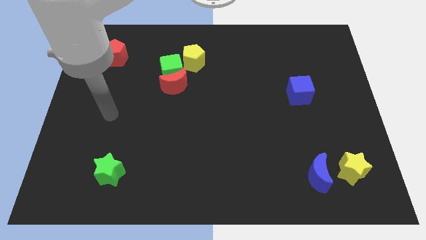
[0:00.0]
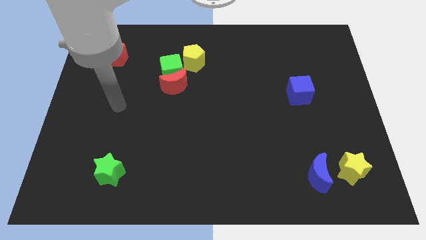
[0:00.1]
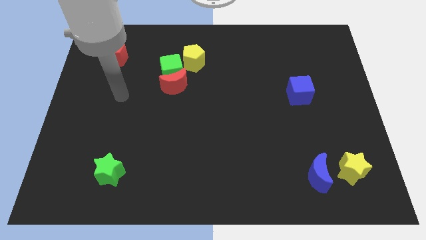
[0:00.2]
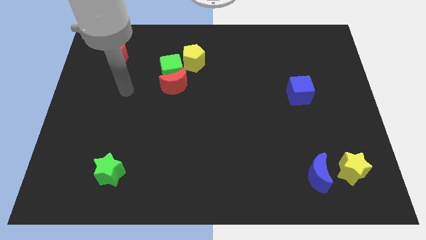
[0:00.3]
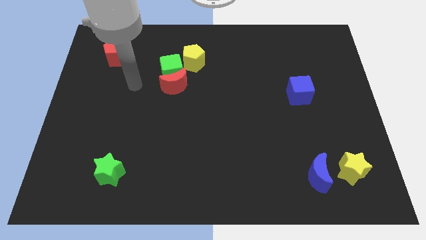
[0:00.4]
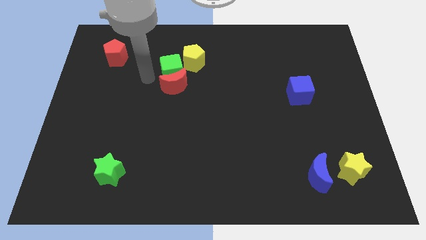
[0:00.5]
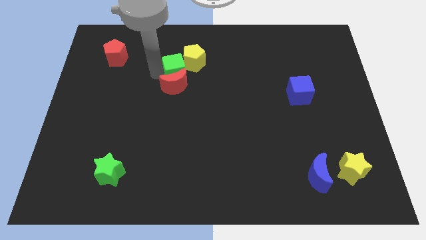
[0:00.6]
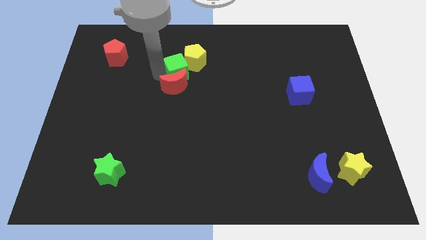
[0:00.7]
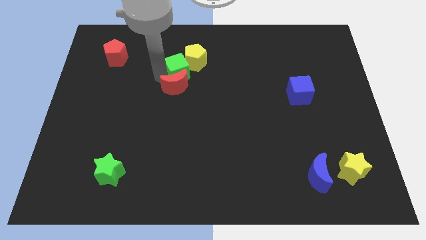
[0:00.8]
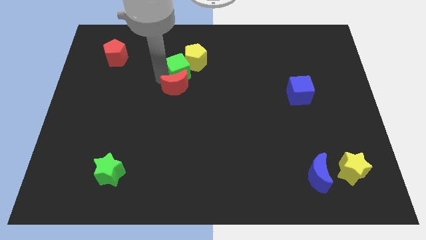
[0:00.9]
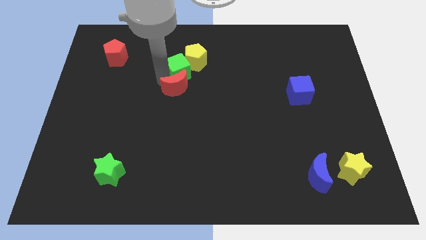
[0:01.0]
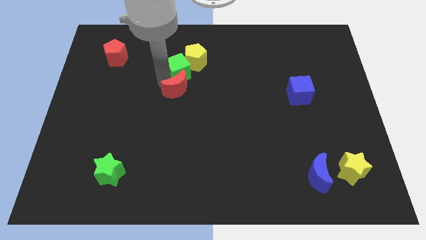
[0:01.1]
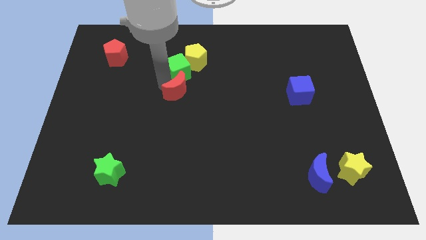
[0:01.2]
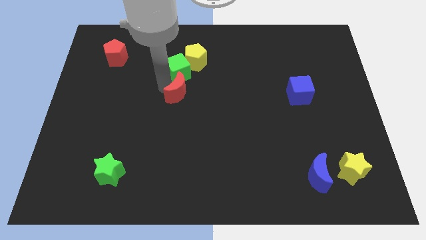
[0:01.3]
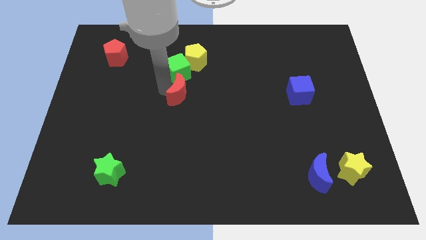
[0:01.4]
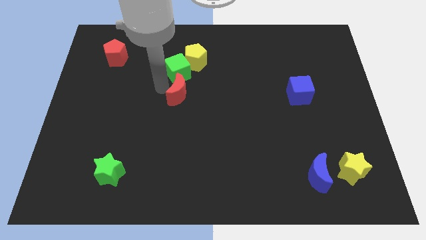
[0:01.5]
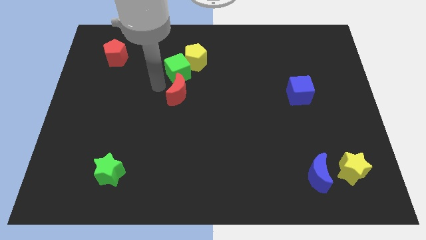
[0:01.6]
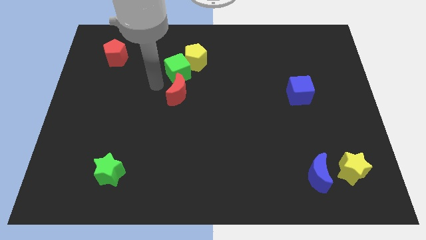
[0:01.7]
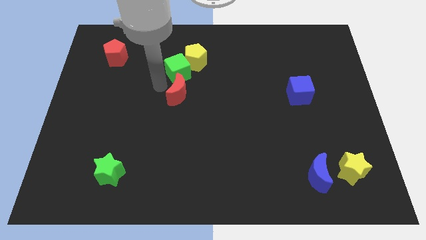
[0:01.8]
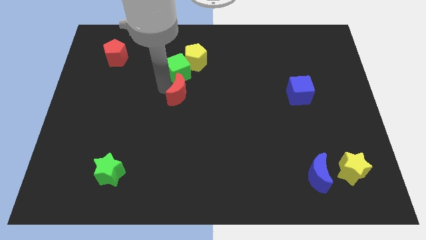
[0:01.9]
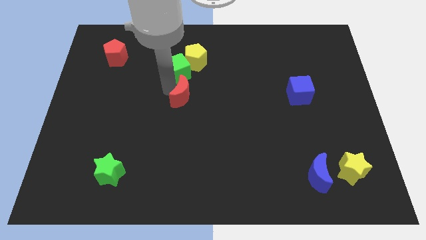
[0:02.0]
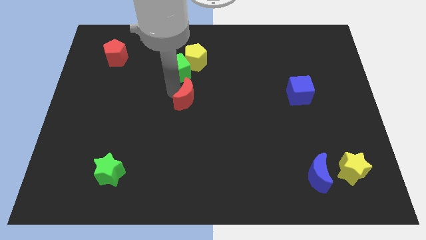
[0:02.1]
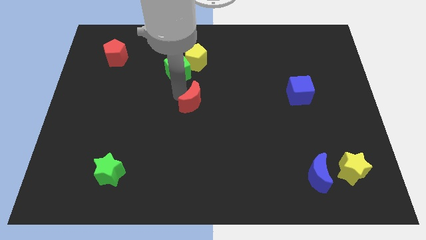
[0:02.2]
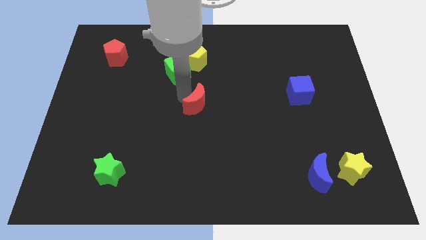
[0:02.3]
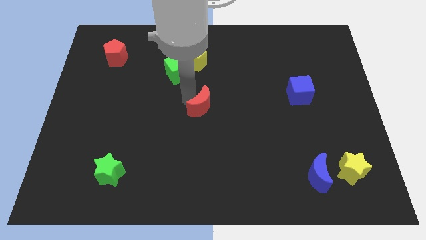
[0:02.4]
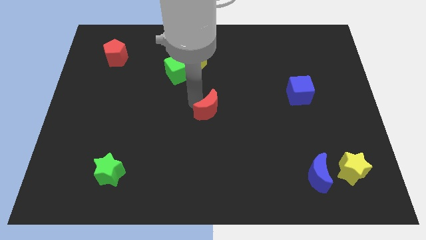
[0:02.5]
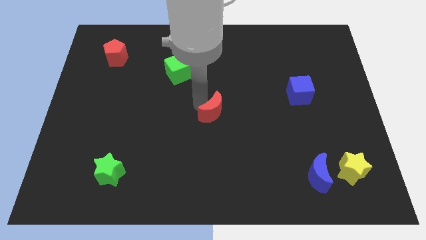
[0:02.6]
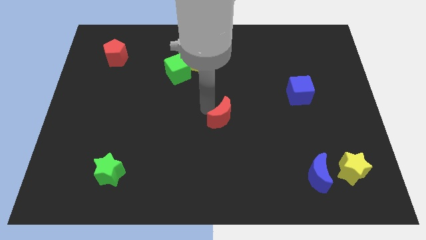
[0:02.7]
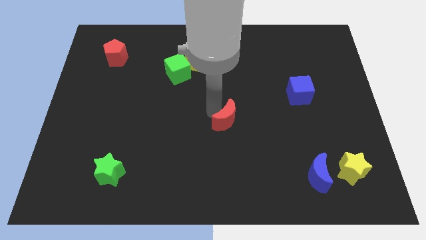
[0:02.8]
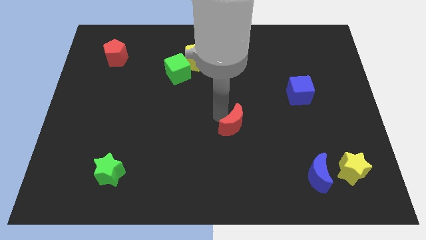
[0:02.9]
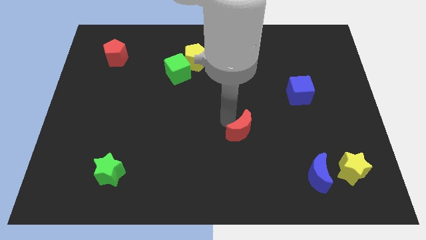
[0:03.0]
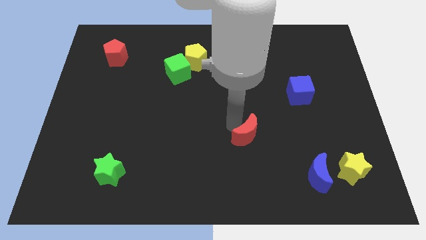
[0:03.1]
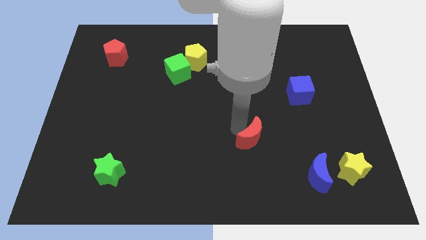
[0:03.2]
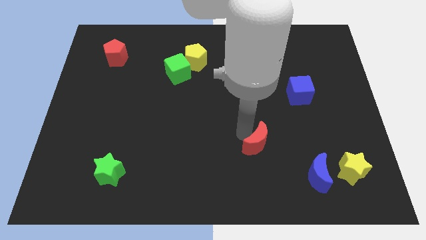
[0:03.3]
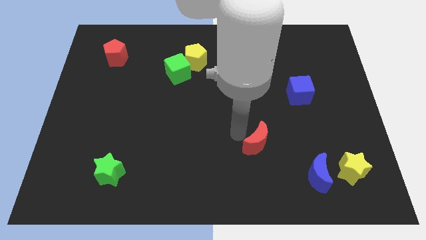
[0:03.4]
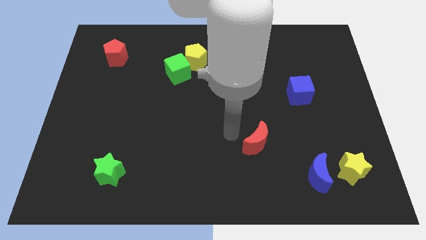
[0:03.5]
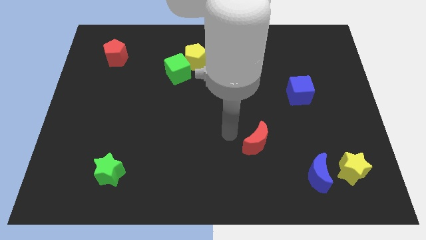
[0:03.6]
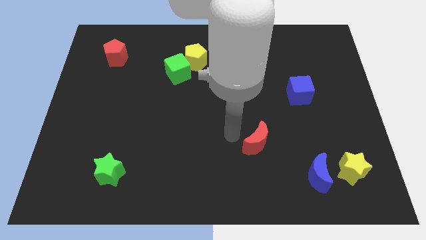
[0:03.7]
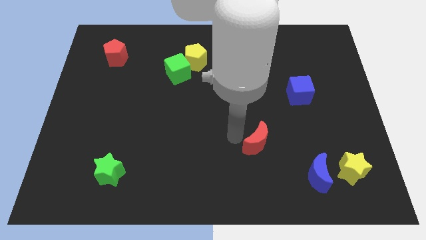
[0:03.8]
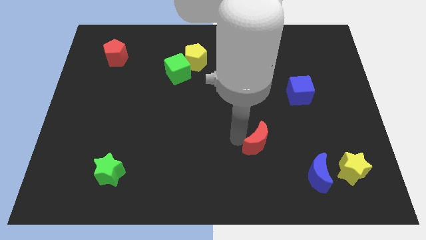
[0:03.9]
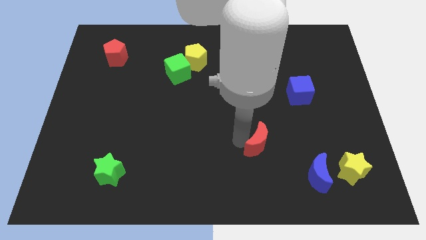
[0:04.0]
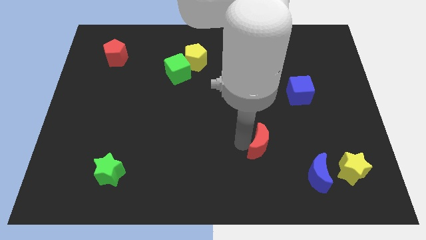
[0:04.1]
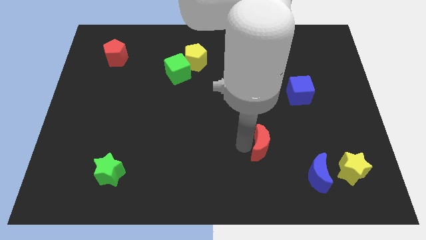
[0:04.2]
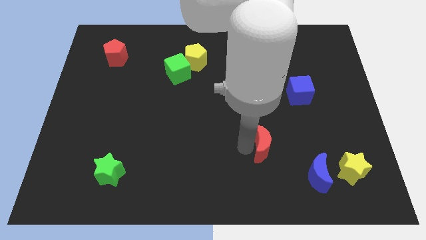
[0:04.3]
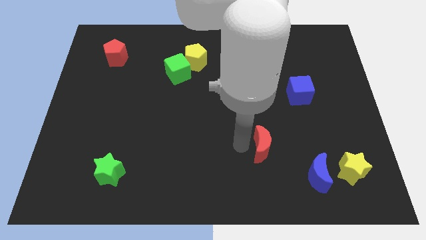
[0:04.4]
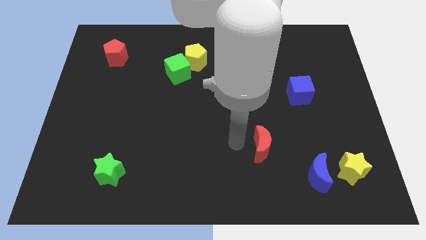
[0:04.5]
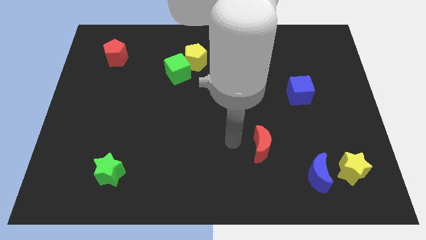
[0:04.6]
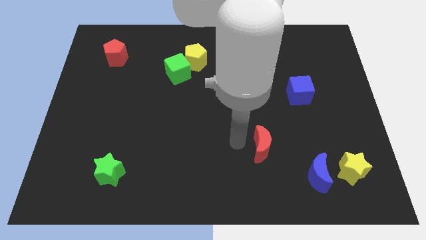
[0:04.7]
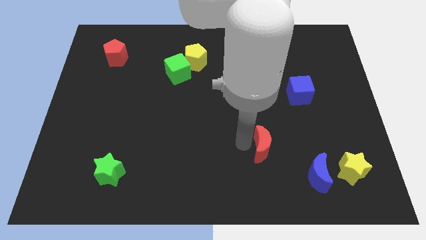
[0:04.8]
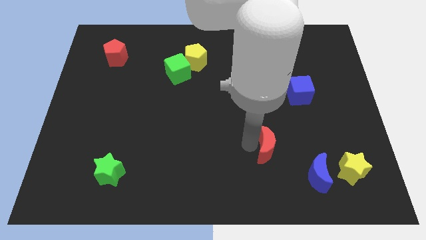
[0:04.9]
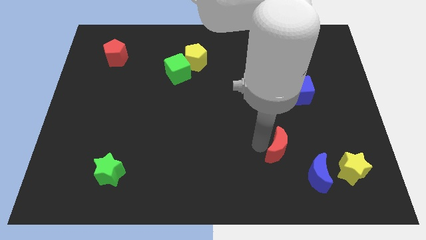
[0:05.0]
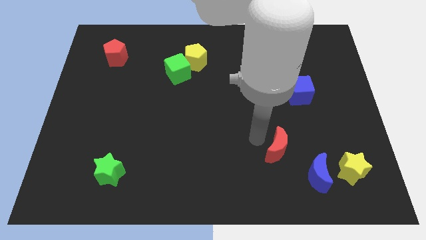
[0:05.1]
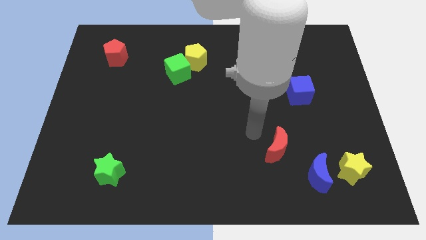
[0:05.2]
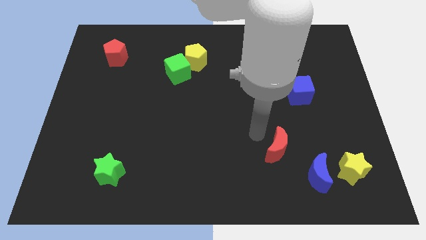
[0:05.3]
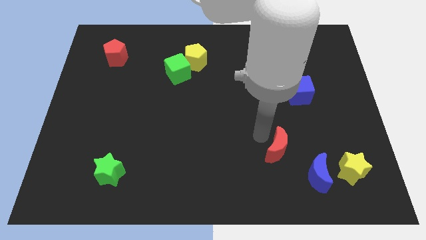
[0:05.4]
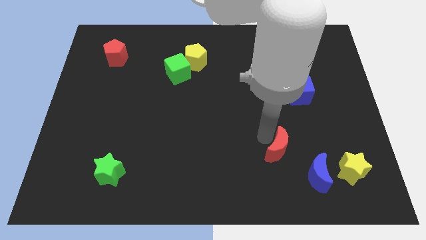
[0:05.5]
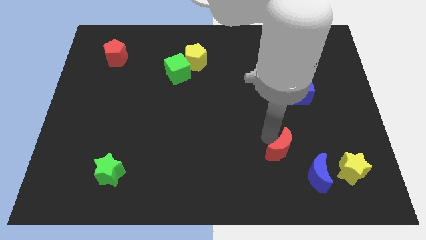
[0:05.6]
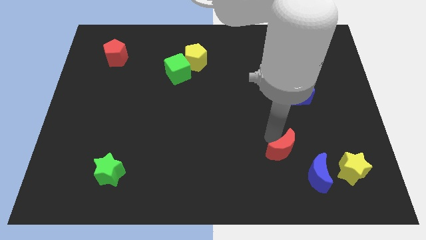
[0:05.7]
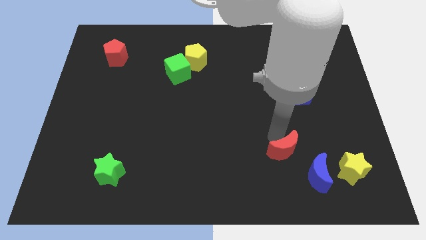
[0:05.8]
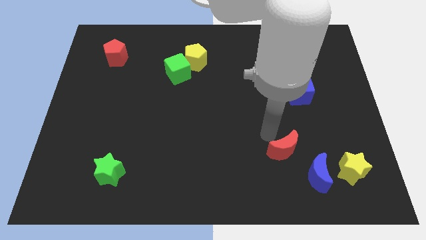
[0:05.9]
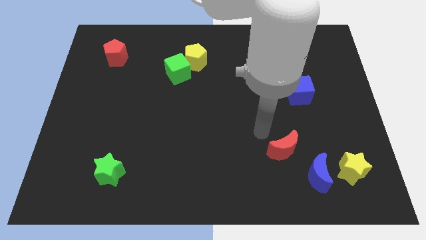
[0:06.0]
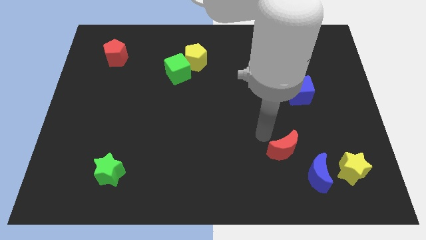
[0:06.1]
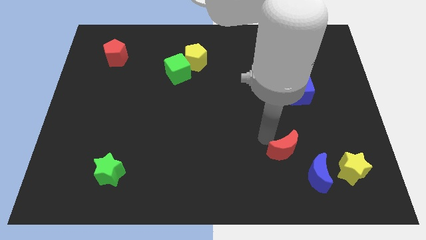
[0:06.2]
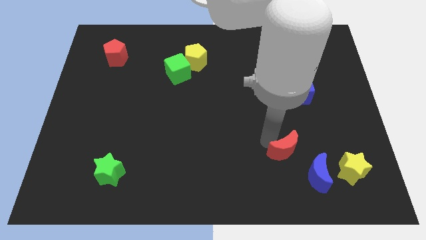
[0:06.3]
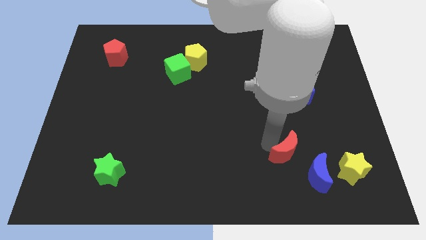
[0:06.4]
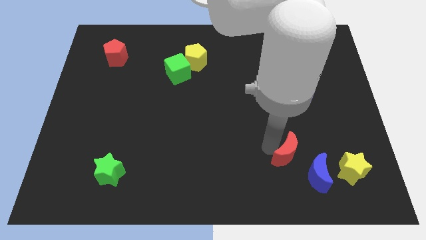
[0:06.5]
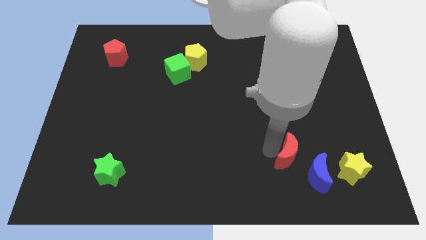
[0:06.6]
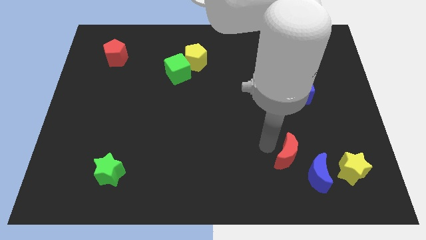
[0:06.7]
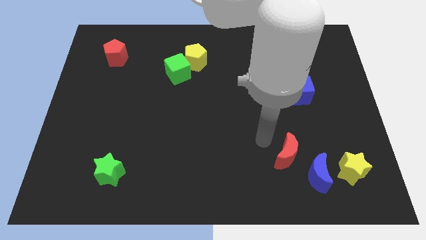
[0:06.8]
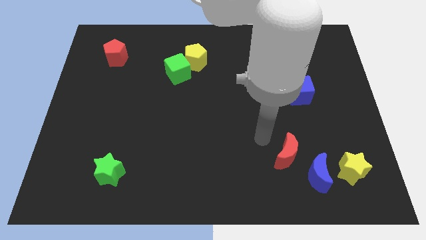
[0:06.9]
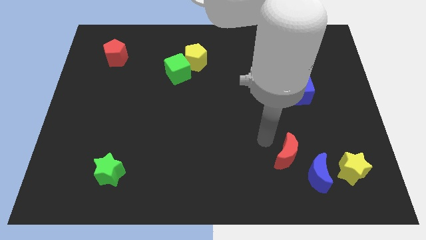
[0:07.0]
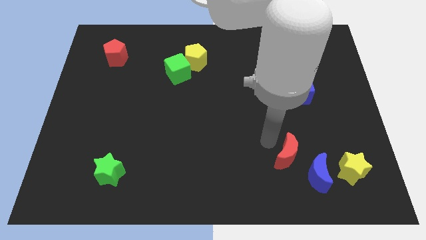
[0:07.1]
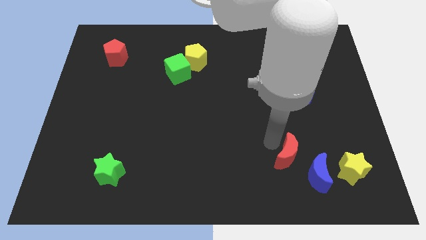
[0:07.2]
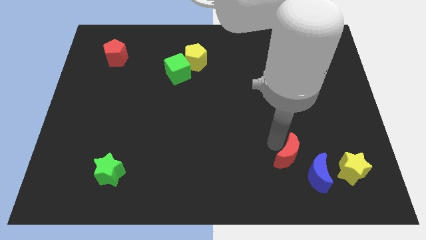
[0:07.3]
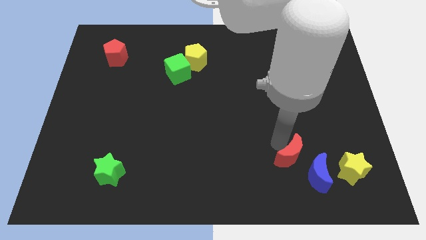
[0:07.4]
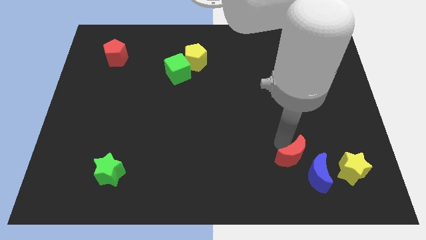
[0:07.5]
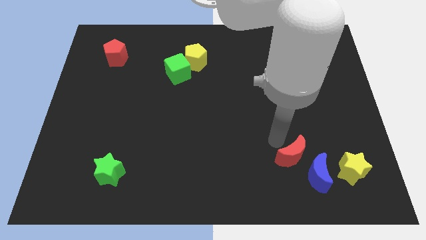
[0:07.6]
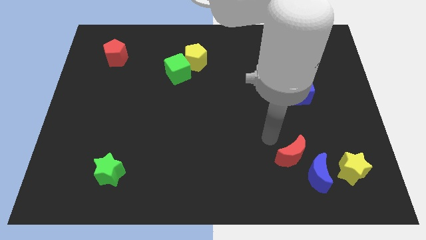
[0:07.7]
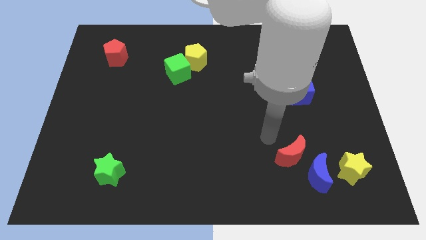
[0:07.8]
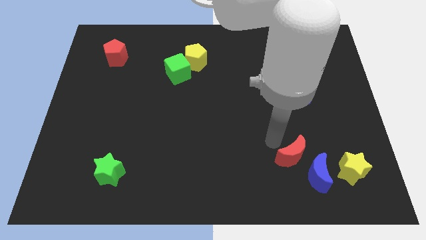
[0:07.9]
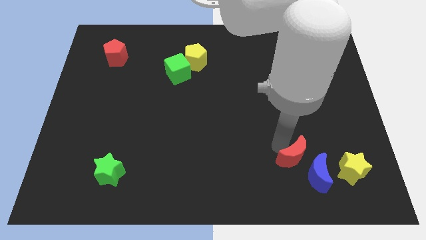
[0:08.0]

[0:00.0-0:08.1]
put the red moon towards the blue moon
